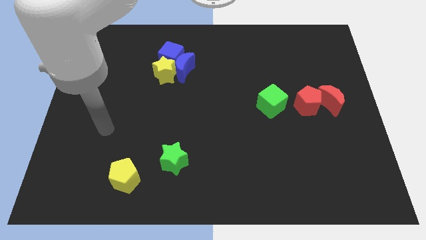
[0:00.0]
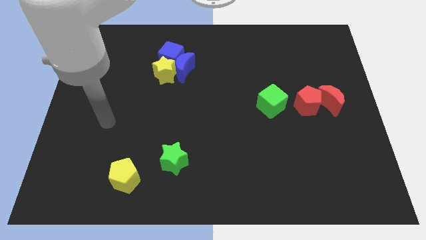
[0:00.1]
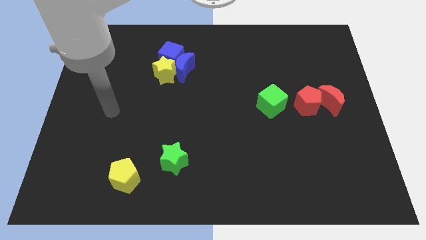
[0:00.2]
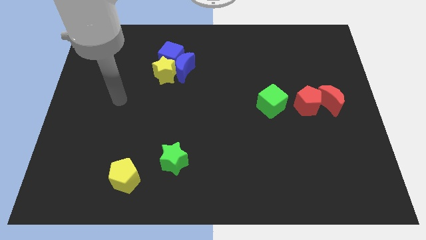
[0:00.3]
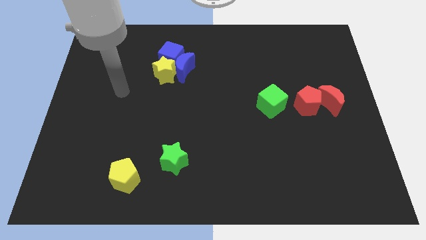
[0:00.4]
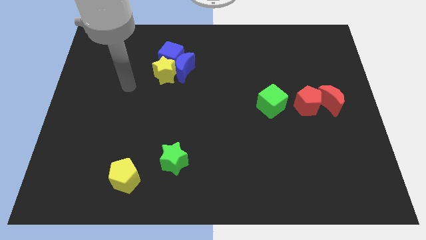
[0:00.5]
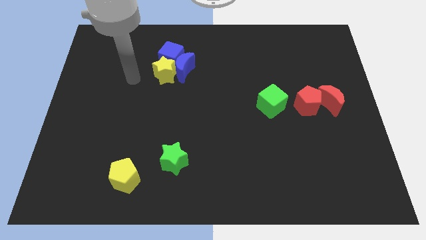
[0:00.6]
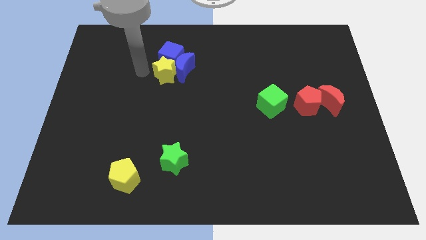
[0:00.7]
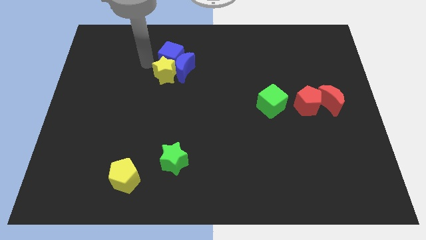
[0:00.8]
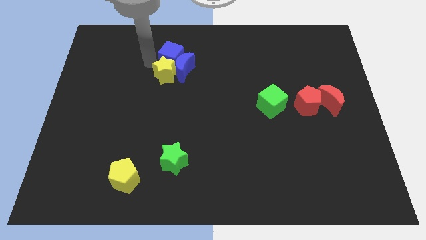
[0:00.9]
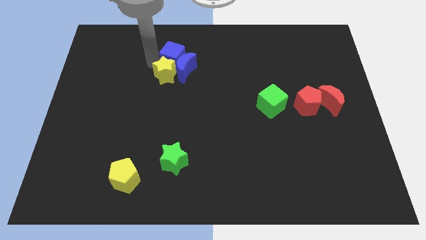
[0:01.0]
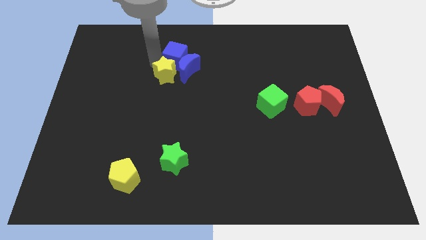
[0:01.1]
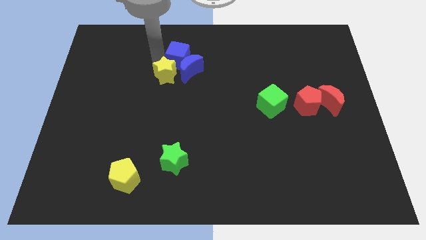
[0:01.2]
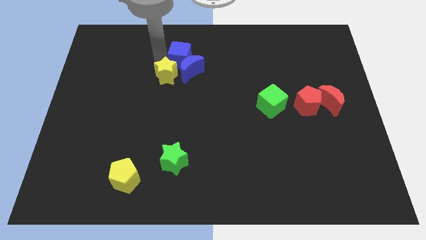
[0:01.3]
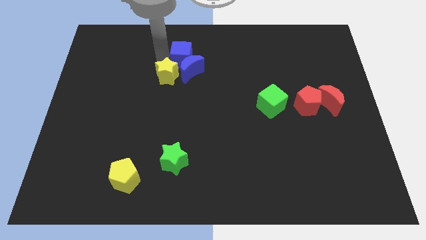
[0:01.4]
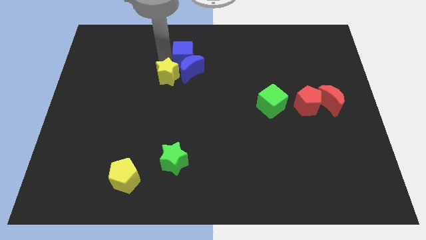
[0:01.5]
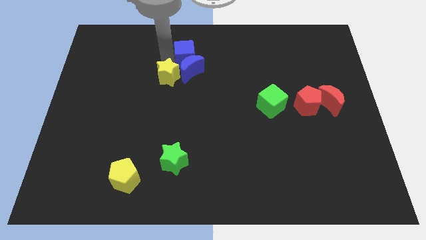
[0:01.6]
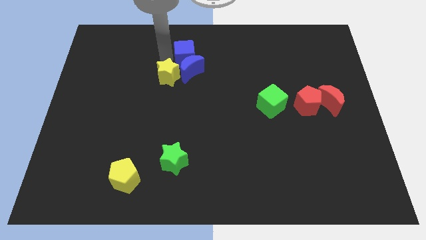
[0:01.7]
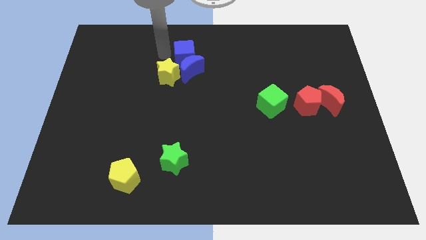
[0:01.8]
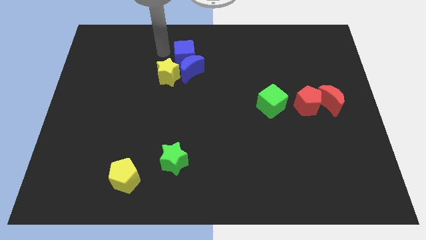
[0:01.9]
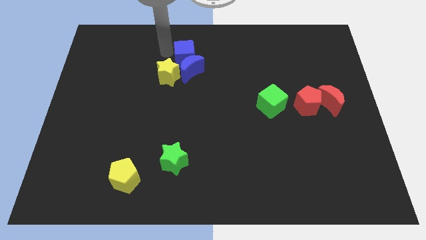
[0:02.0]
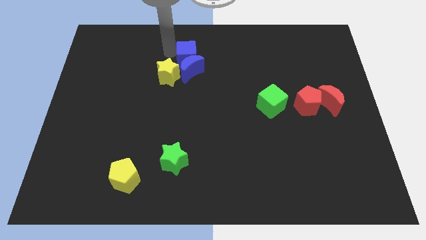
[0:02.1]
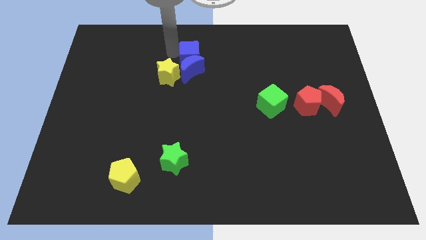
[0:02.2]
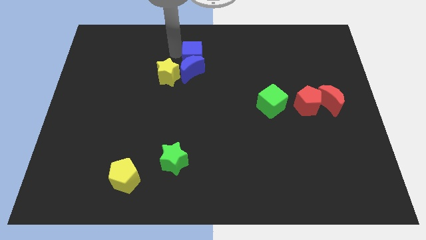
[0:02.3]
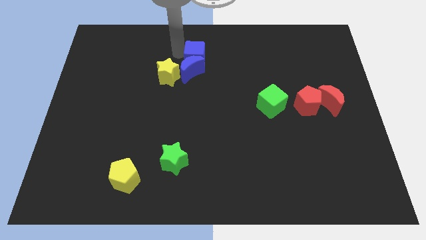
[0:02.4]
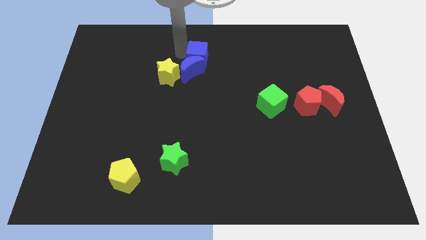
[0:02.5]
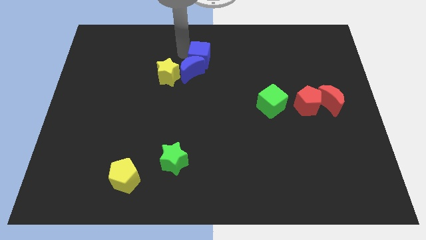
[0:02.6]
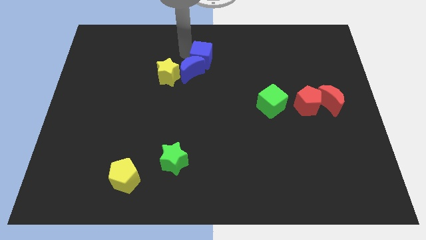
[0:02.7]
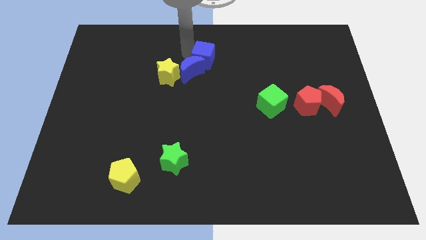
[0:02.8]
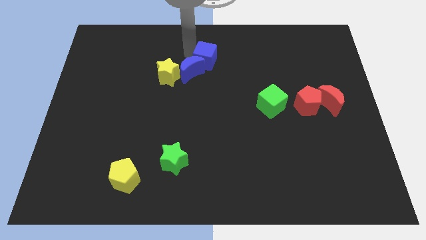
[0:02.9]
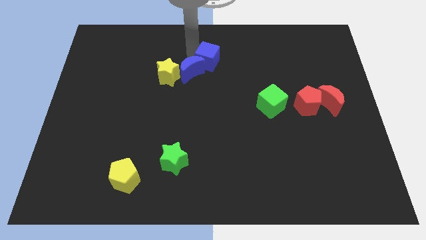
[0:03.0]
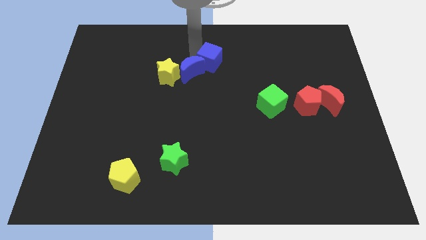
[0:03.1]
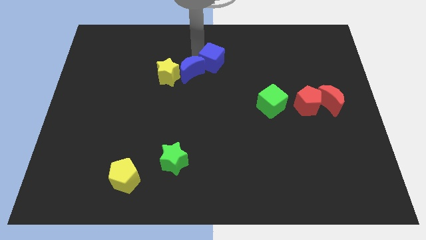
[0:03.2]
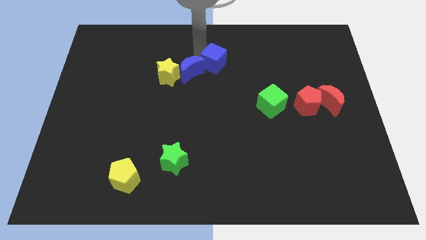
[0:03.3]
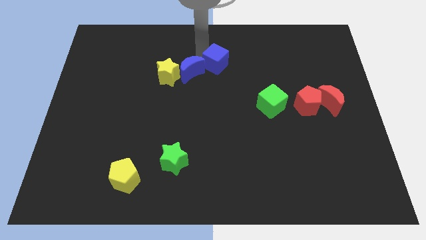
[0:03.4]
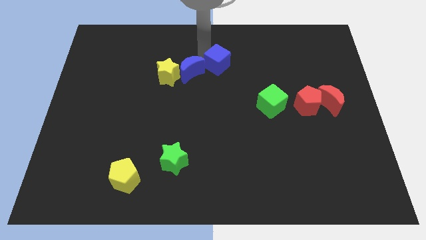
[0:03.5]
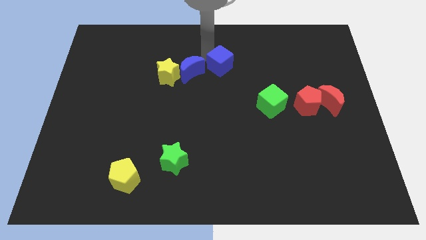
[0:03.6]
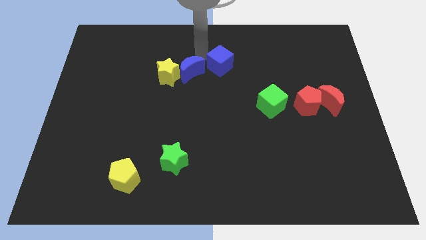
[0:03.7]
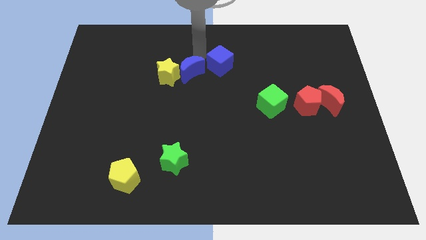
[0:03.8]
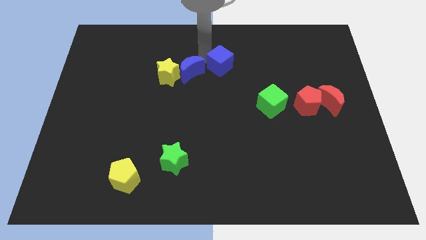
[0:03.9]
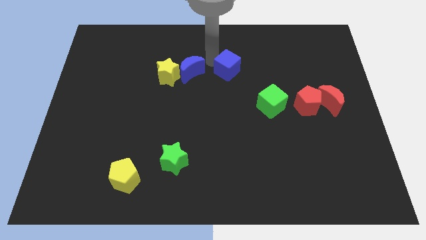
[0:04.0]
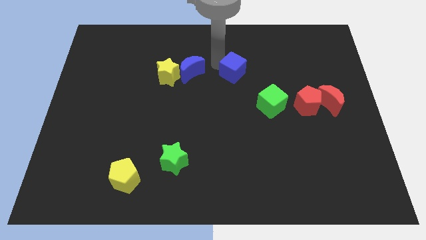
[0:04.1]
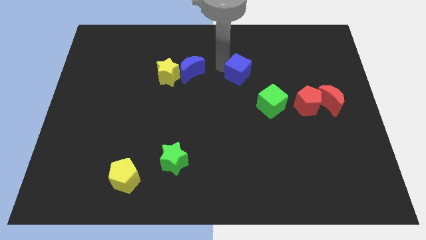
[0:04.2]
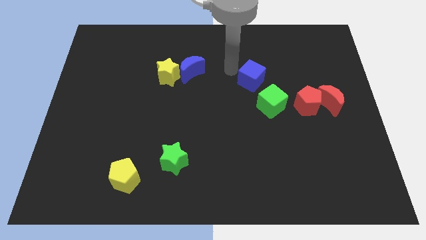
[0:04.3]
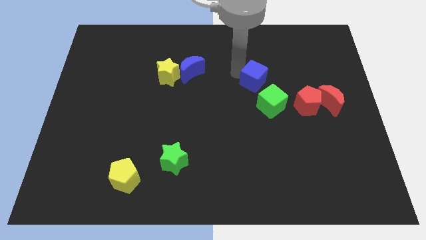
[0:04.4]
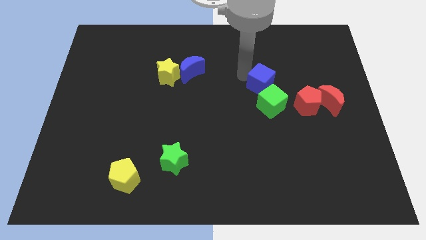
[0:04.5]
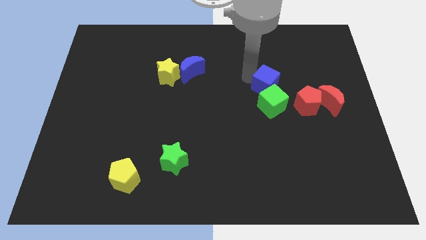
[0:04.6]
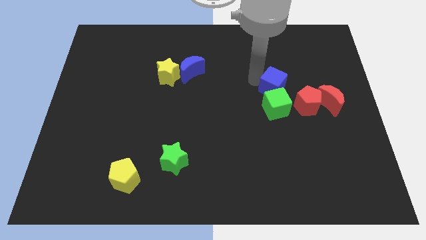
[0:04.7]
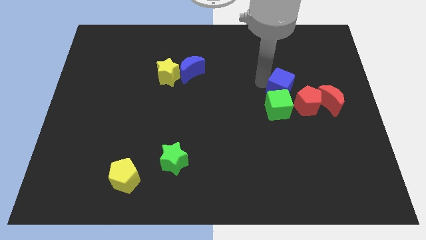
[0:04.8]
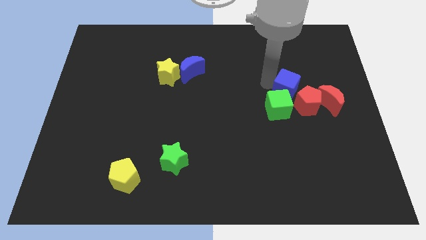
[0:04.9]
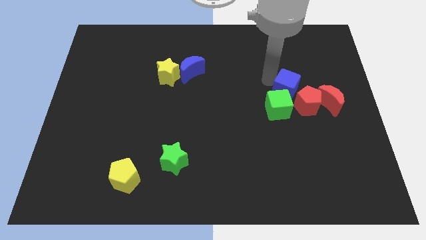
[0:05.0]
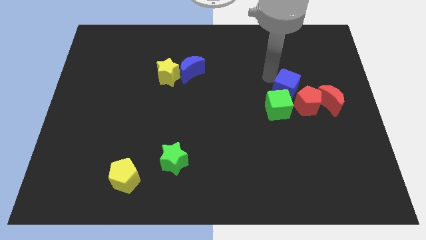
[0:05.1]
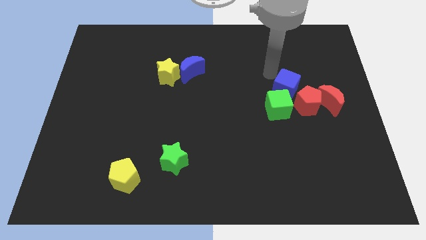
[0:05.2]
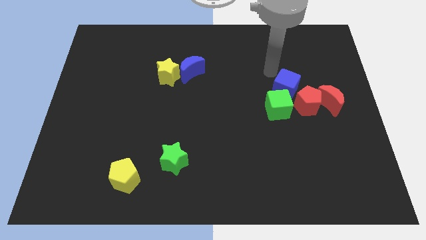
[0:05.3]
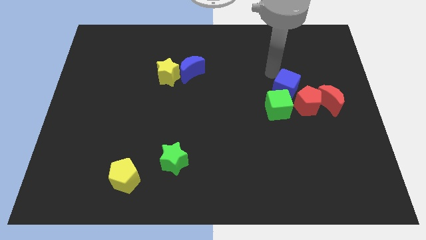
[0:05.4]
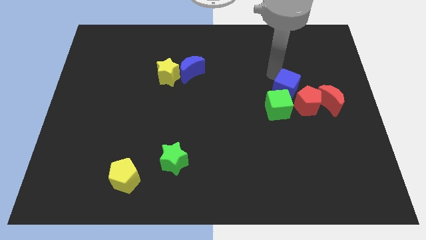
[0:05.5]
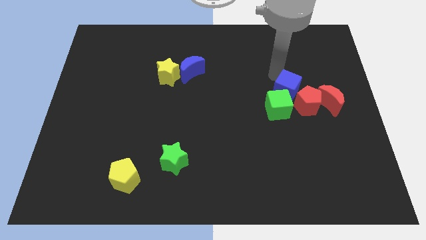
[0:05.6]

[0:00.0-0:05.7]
put the blue cube next to the red pentagon

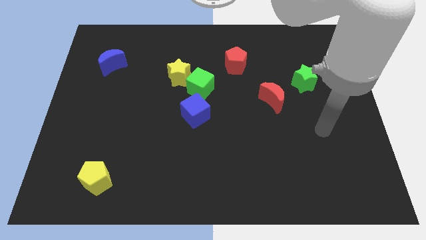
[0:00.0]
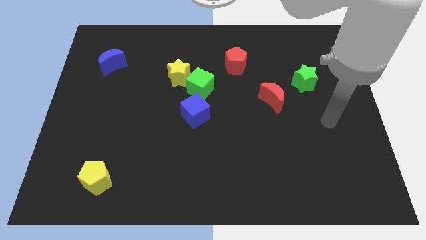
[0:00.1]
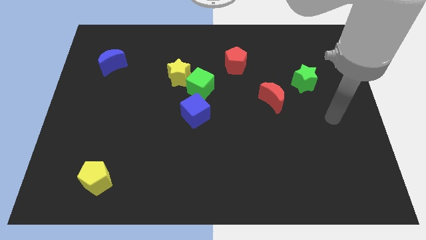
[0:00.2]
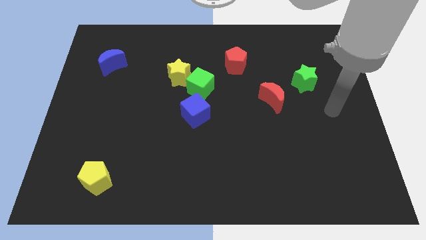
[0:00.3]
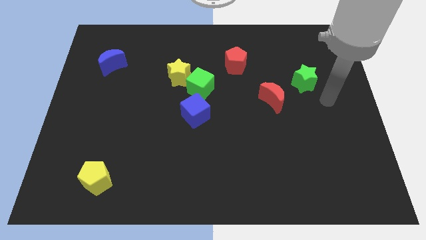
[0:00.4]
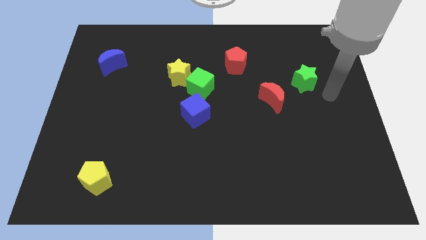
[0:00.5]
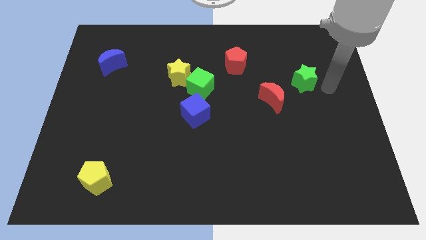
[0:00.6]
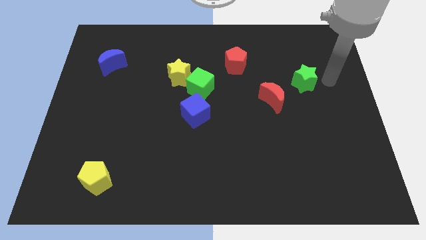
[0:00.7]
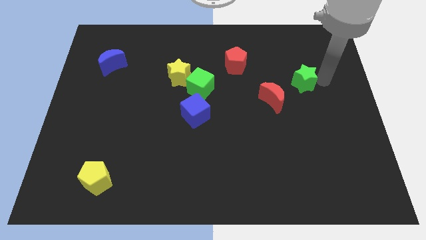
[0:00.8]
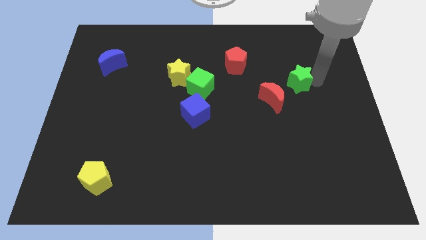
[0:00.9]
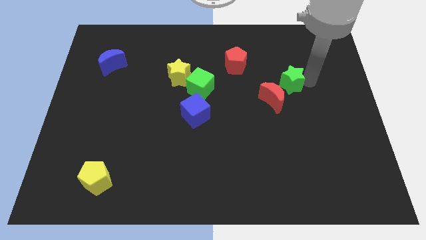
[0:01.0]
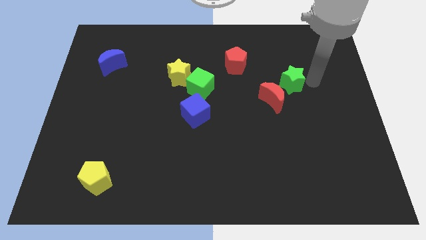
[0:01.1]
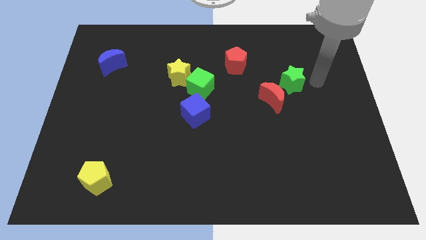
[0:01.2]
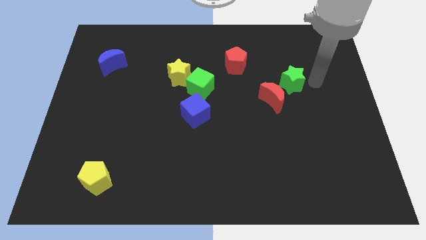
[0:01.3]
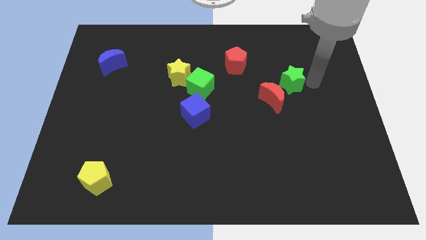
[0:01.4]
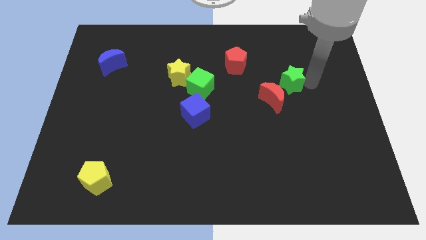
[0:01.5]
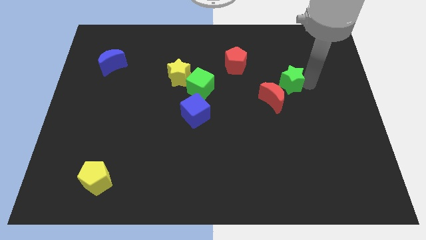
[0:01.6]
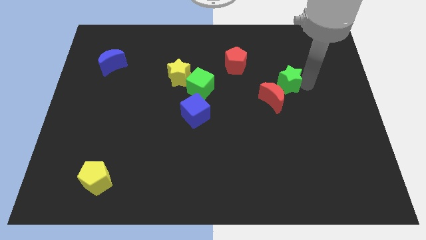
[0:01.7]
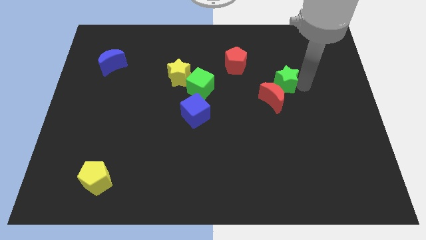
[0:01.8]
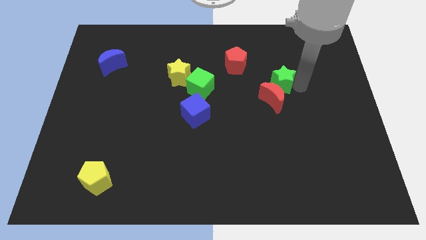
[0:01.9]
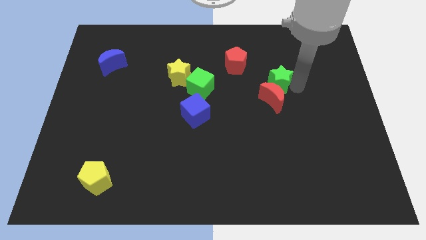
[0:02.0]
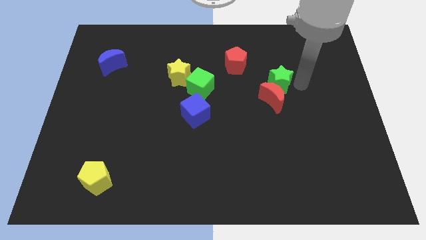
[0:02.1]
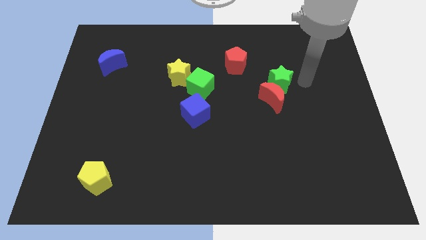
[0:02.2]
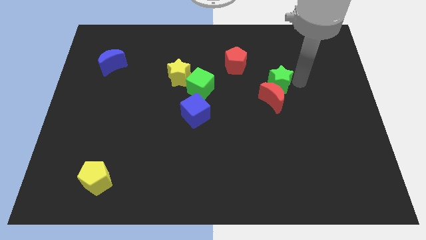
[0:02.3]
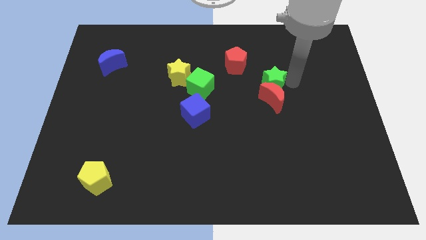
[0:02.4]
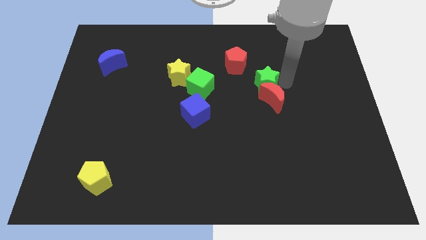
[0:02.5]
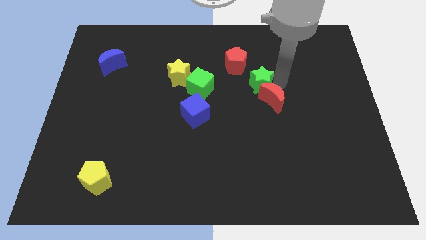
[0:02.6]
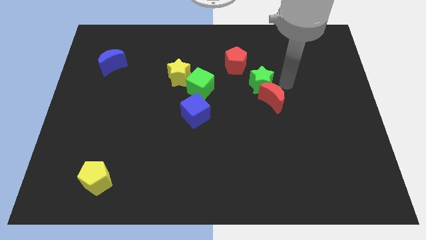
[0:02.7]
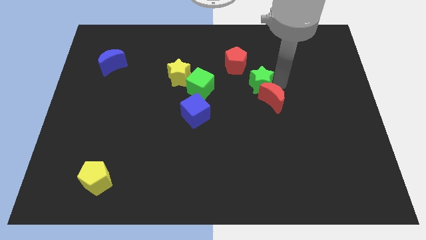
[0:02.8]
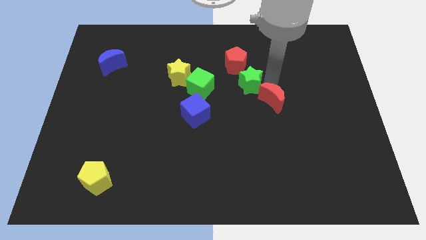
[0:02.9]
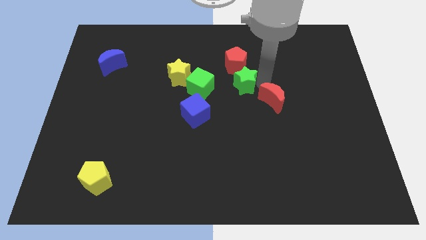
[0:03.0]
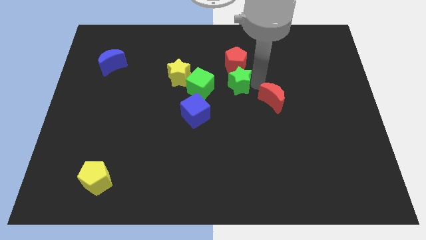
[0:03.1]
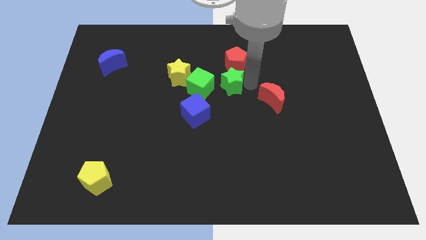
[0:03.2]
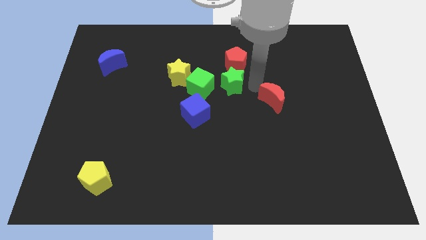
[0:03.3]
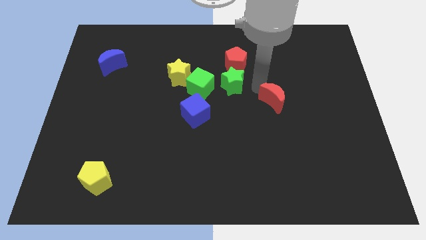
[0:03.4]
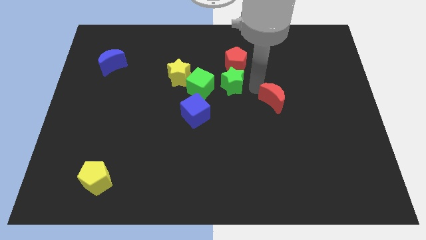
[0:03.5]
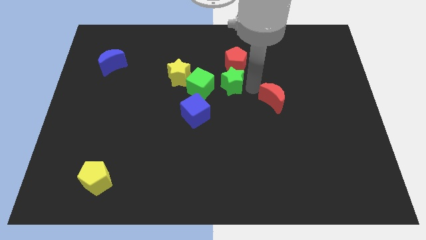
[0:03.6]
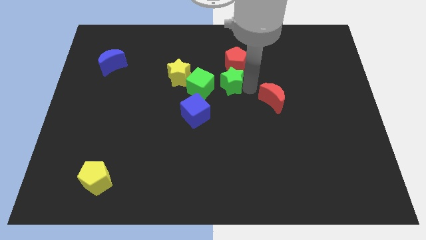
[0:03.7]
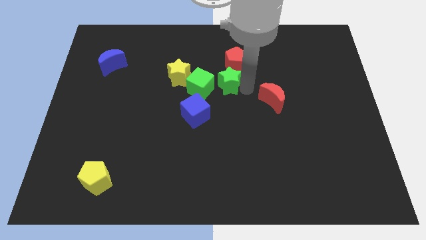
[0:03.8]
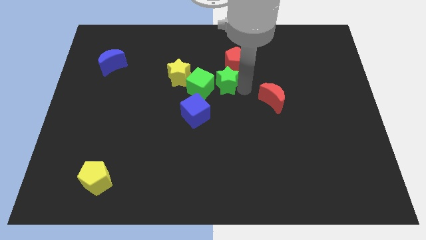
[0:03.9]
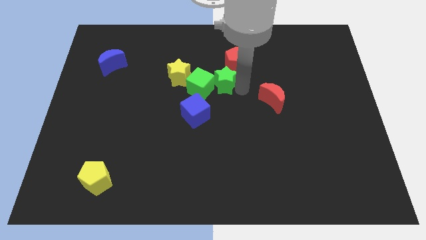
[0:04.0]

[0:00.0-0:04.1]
put the green star towards the green cube
